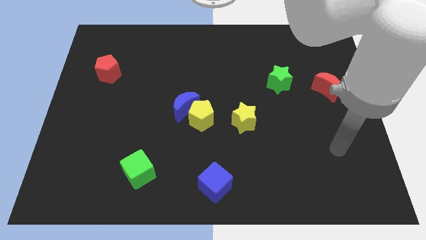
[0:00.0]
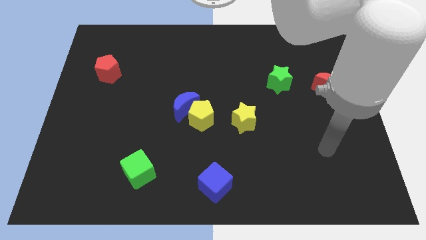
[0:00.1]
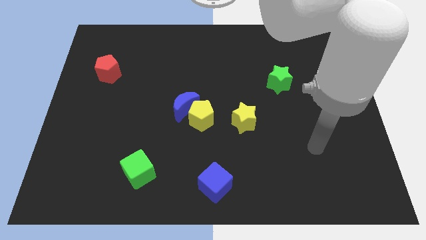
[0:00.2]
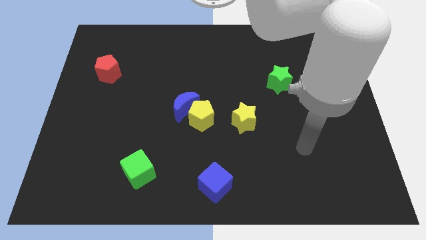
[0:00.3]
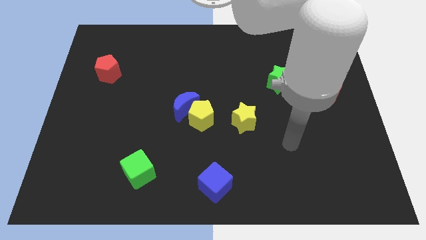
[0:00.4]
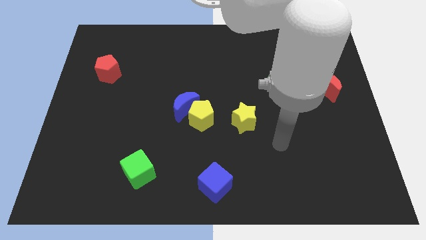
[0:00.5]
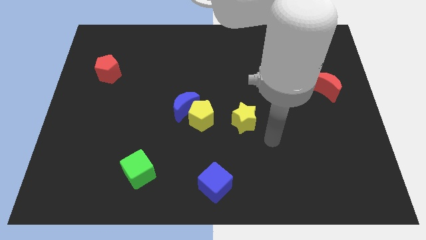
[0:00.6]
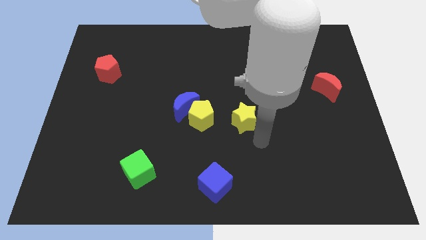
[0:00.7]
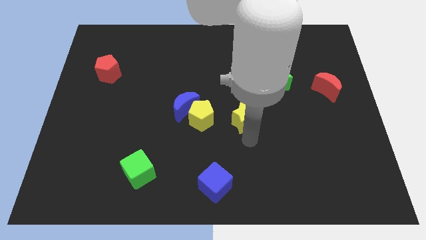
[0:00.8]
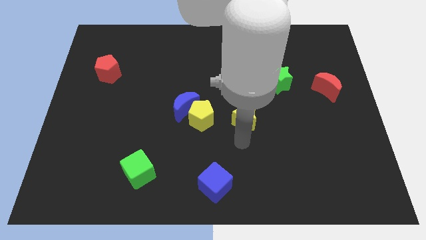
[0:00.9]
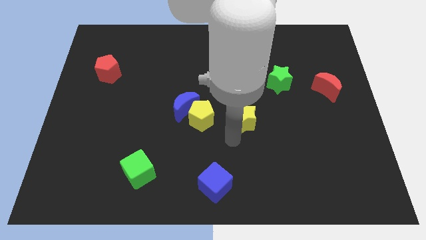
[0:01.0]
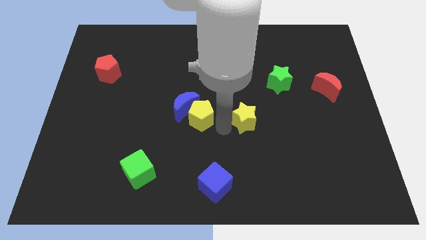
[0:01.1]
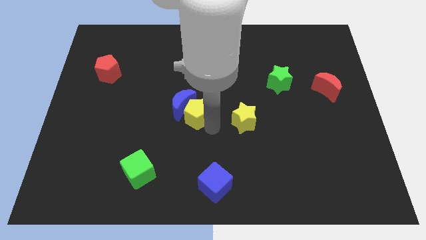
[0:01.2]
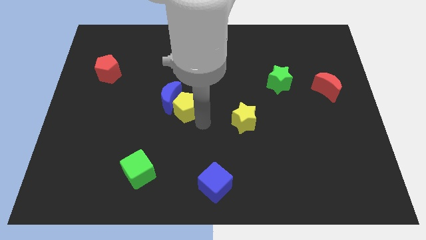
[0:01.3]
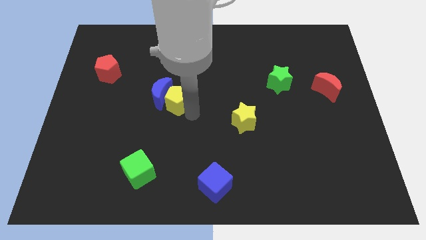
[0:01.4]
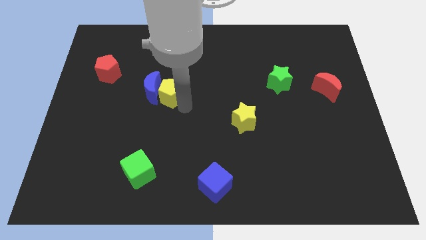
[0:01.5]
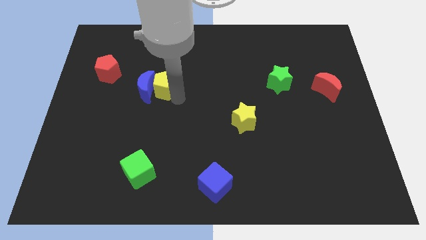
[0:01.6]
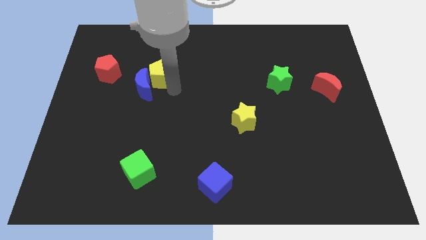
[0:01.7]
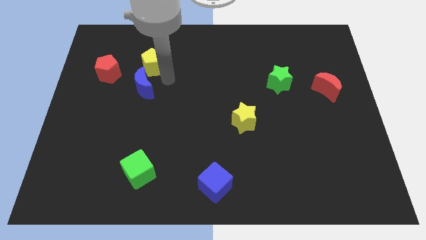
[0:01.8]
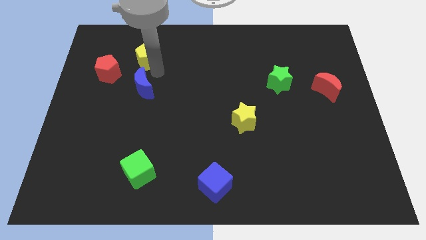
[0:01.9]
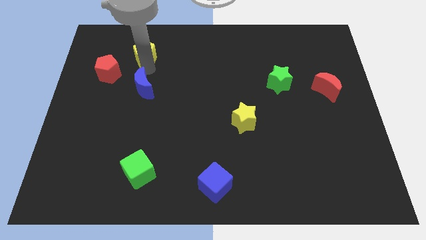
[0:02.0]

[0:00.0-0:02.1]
move the blue moon away from the yellow pentagon

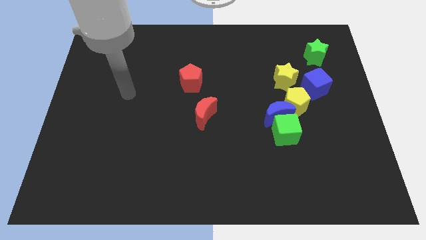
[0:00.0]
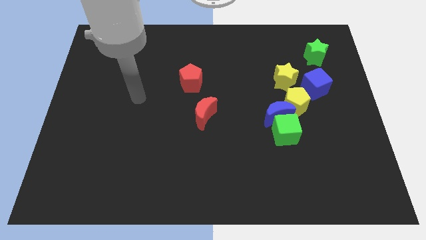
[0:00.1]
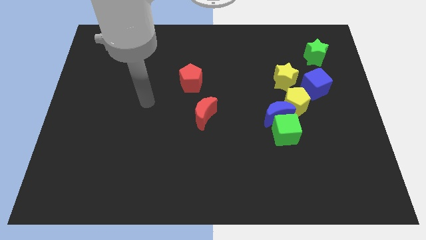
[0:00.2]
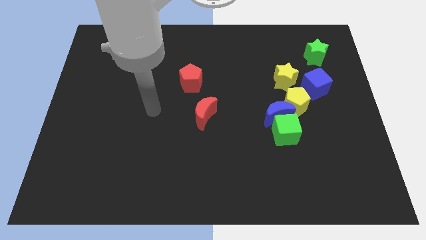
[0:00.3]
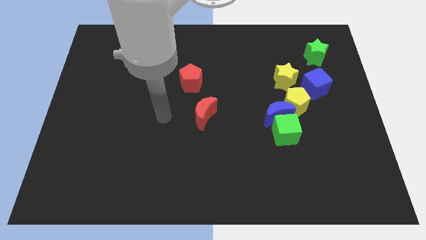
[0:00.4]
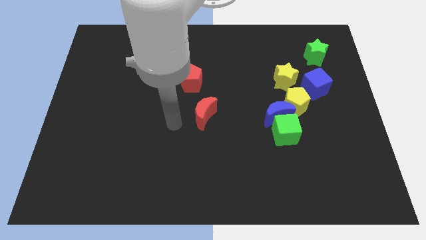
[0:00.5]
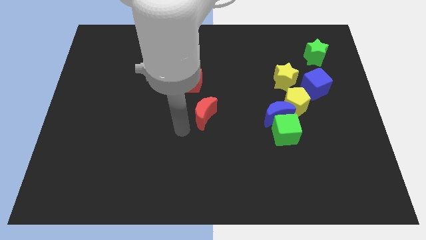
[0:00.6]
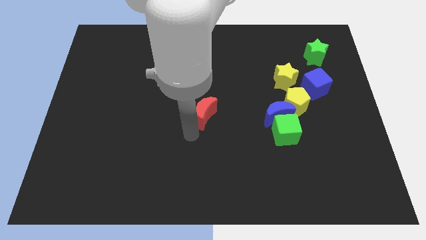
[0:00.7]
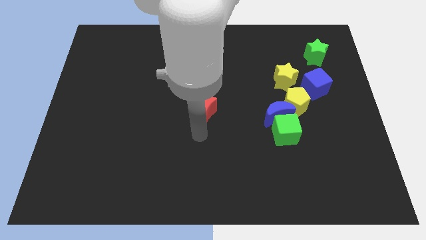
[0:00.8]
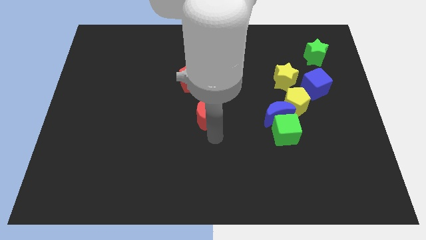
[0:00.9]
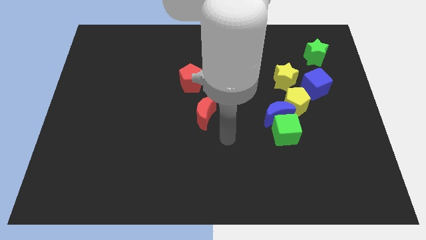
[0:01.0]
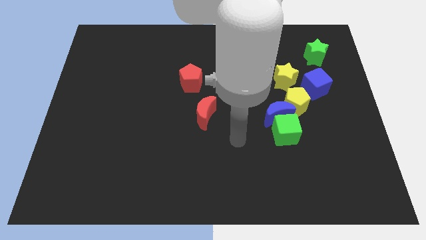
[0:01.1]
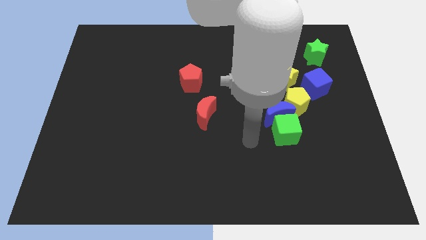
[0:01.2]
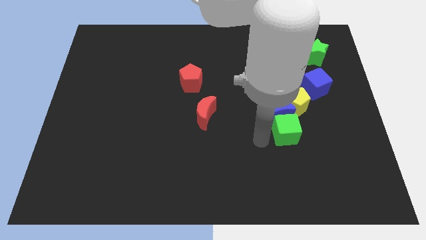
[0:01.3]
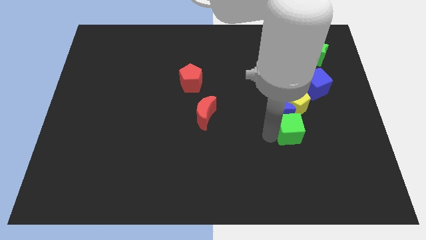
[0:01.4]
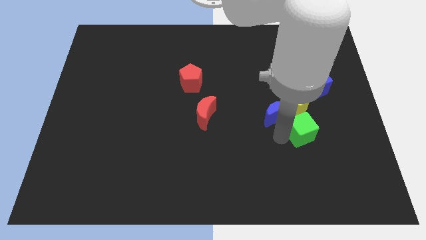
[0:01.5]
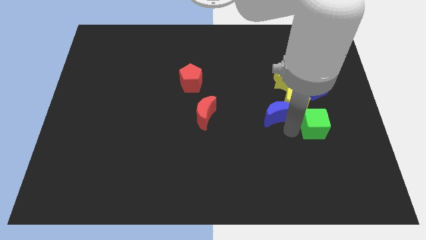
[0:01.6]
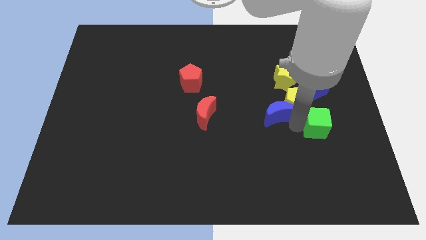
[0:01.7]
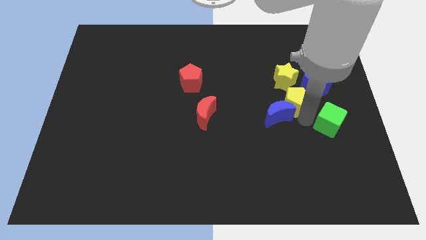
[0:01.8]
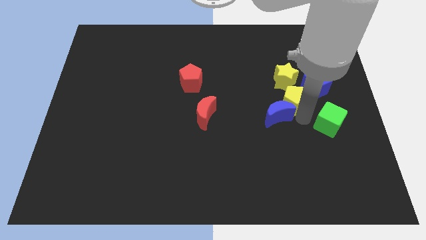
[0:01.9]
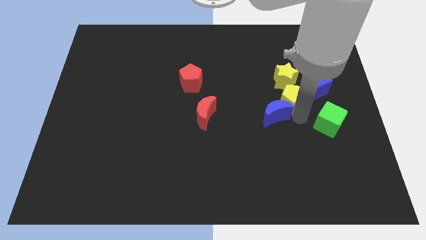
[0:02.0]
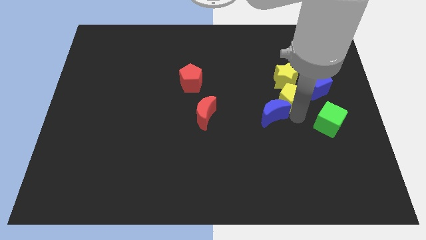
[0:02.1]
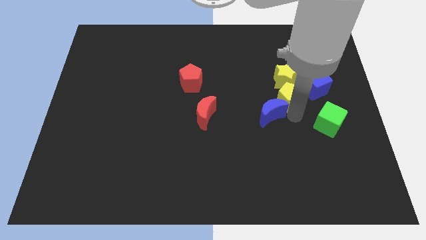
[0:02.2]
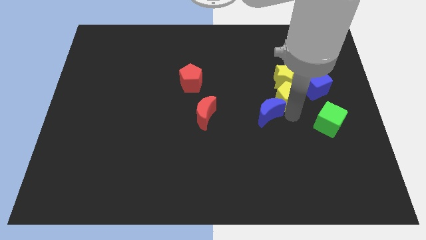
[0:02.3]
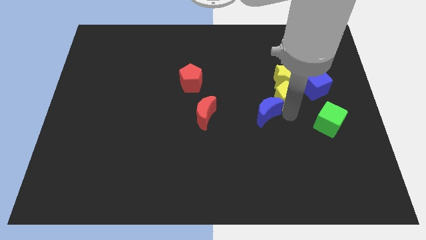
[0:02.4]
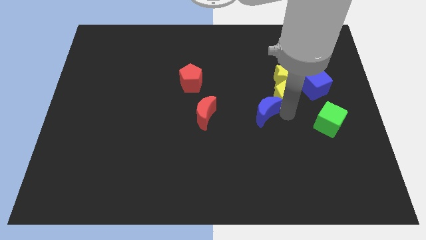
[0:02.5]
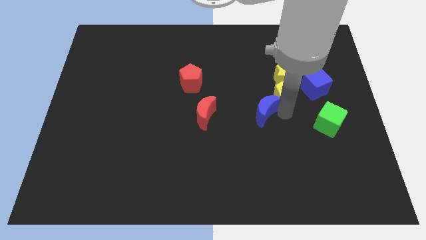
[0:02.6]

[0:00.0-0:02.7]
move the blue moon away from the green cube and yellow pentagon

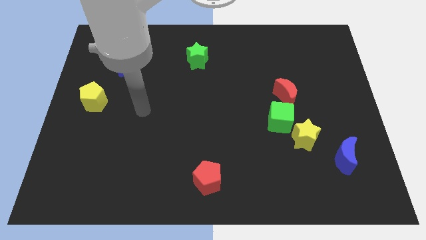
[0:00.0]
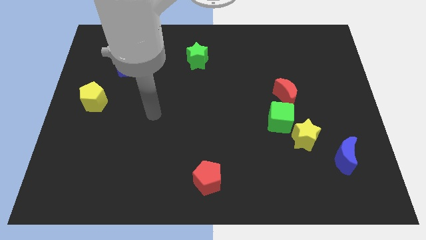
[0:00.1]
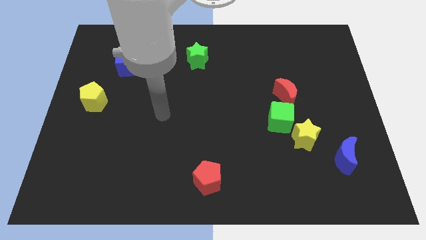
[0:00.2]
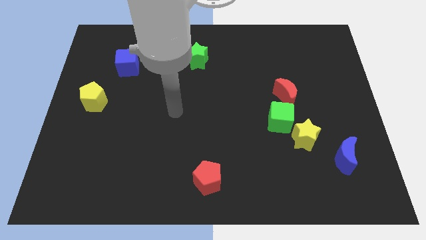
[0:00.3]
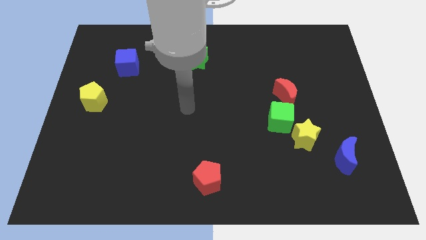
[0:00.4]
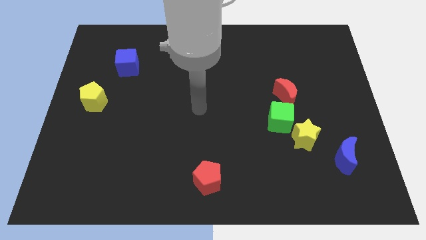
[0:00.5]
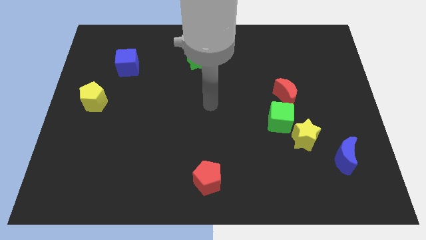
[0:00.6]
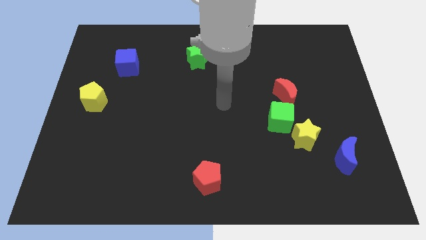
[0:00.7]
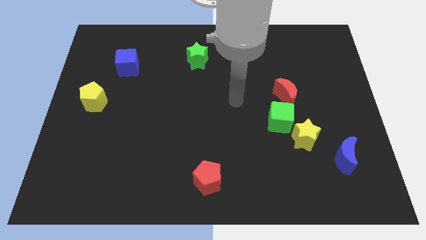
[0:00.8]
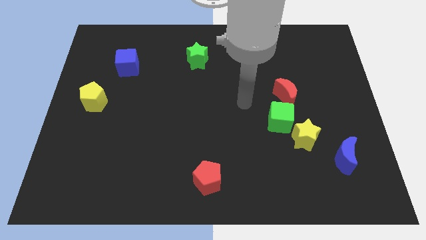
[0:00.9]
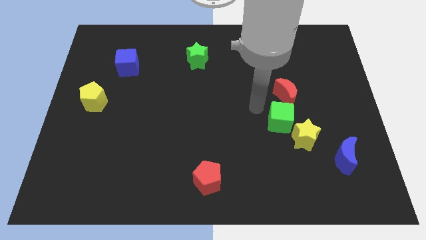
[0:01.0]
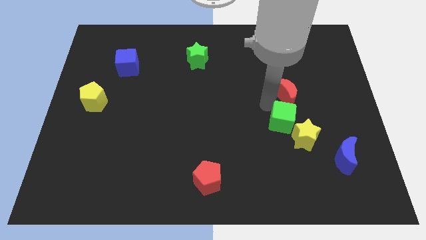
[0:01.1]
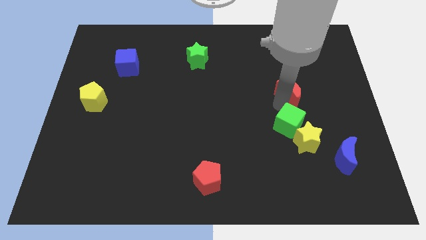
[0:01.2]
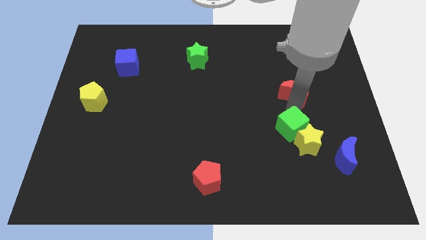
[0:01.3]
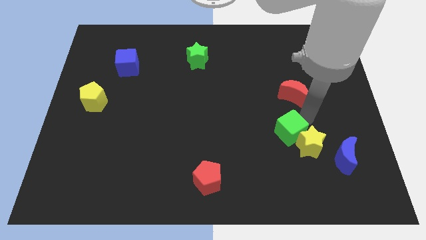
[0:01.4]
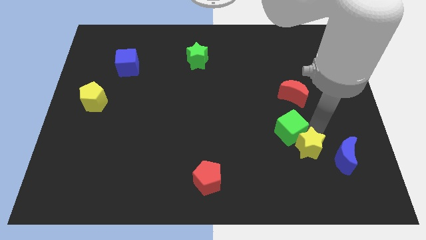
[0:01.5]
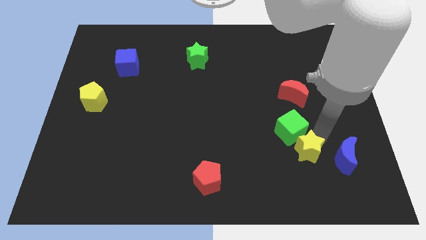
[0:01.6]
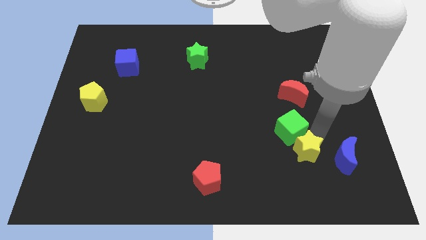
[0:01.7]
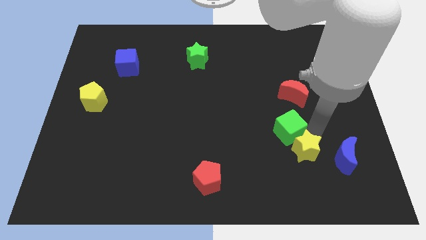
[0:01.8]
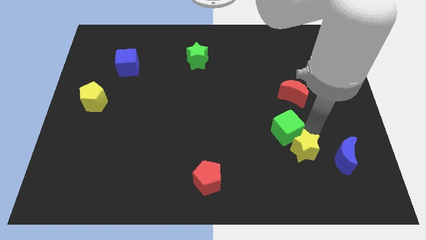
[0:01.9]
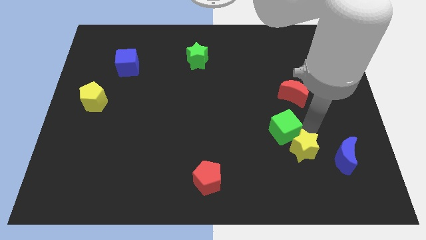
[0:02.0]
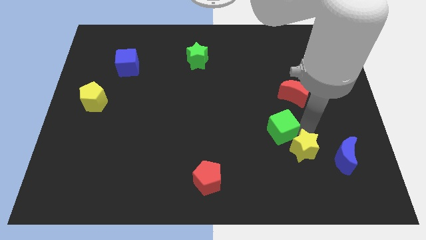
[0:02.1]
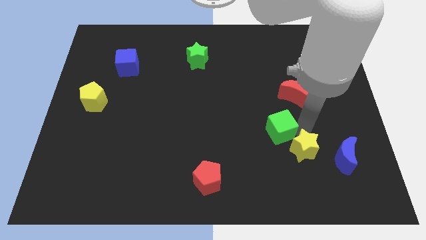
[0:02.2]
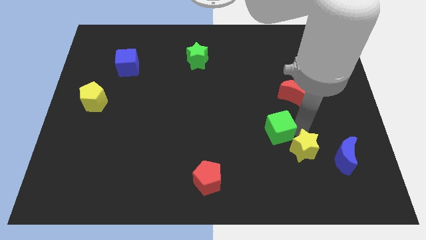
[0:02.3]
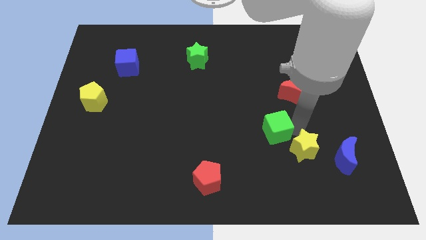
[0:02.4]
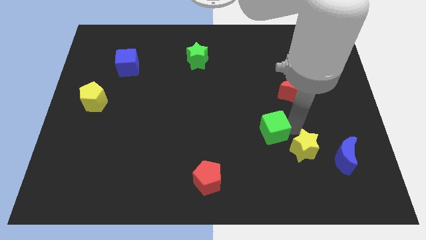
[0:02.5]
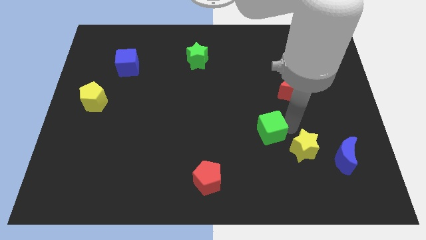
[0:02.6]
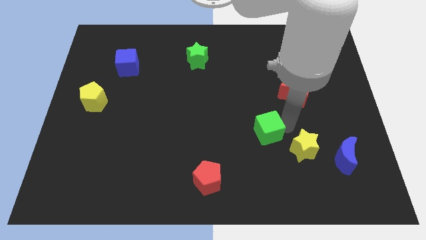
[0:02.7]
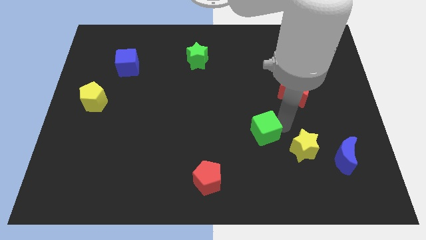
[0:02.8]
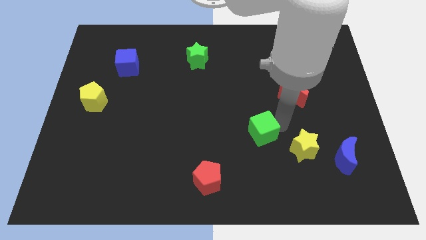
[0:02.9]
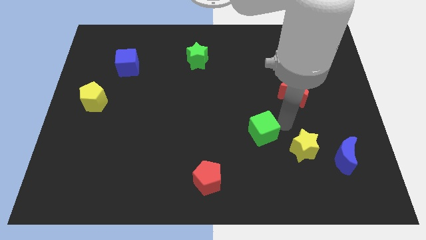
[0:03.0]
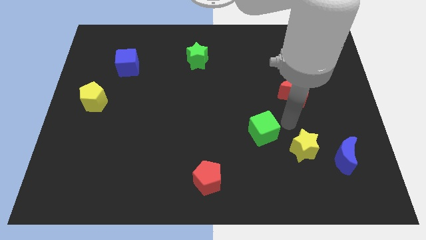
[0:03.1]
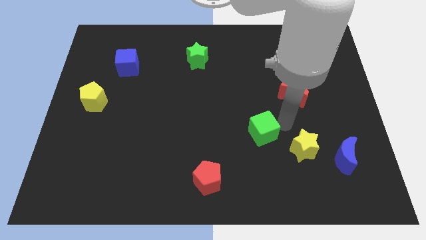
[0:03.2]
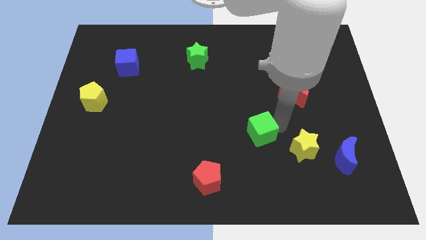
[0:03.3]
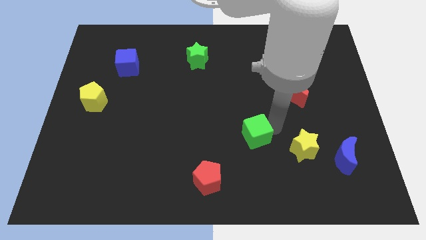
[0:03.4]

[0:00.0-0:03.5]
pull the green cube apart from the yellow star and red moon

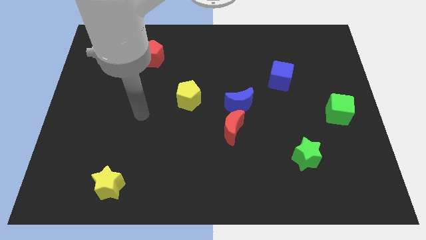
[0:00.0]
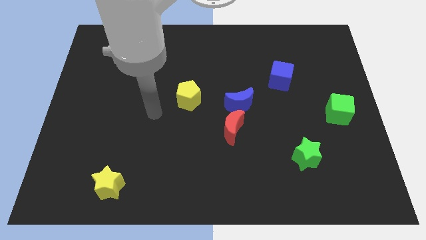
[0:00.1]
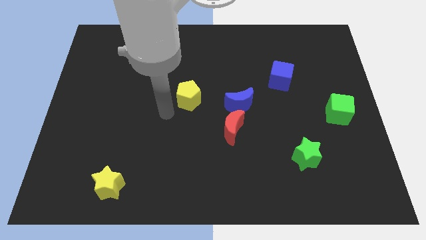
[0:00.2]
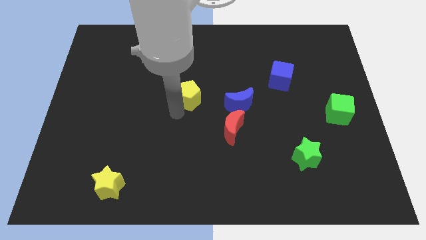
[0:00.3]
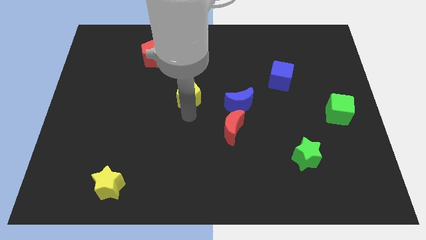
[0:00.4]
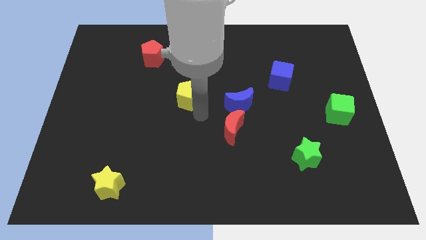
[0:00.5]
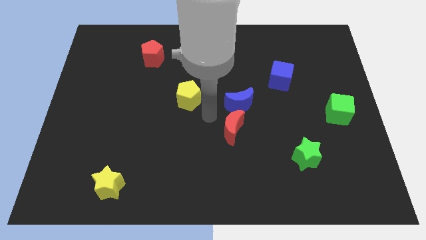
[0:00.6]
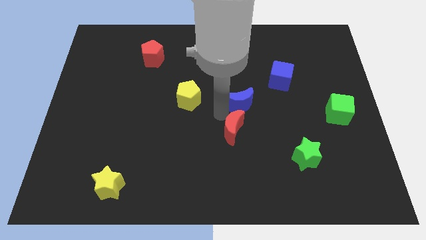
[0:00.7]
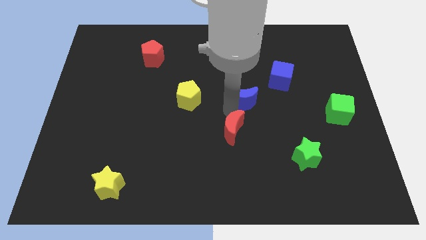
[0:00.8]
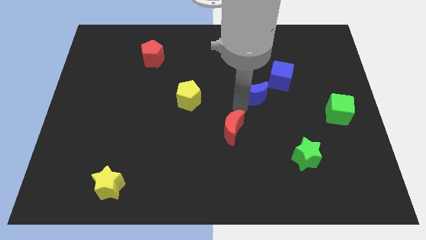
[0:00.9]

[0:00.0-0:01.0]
pull the red moon apart from the blue moon
